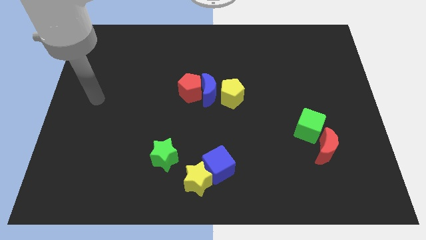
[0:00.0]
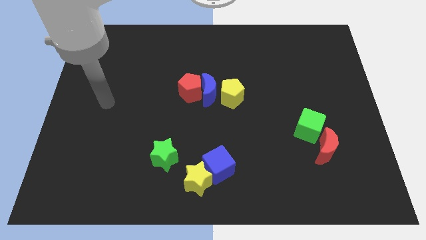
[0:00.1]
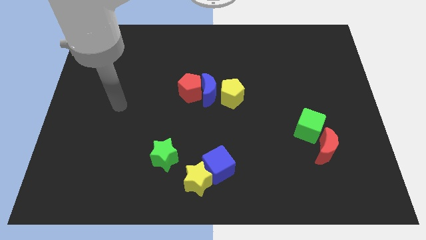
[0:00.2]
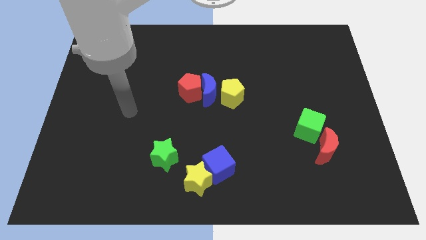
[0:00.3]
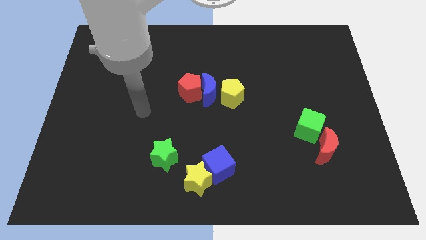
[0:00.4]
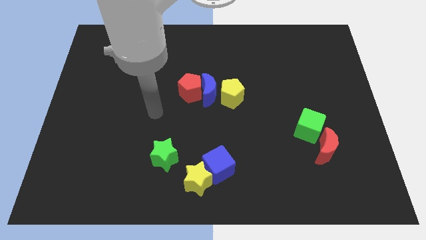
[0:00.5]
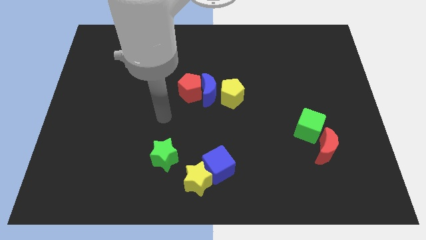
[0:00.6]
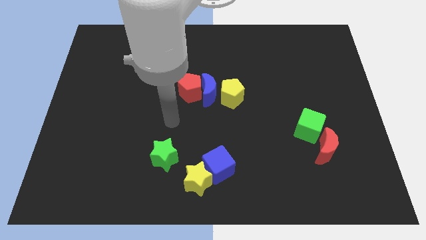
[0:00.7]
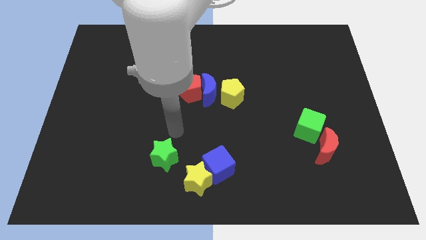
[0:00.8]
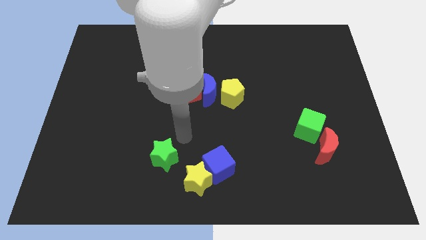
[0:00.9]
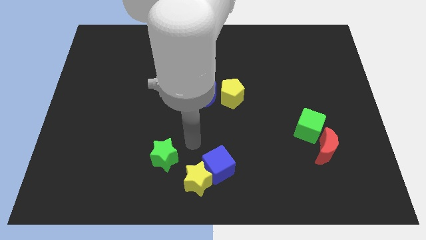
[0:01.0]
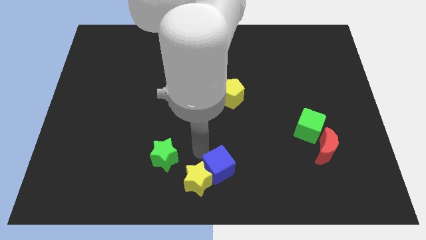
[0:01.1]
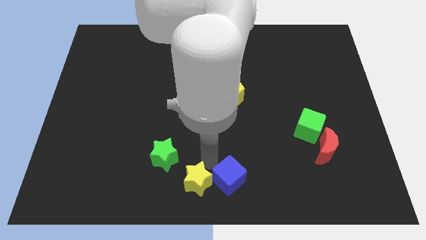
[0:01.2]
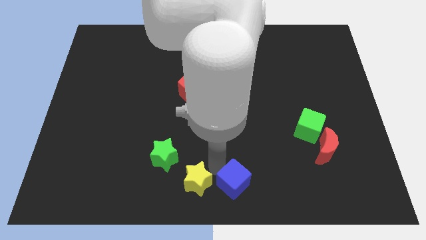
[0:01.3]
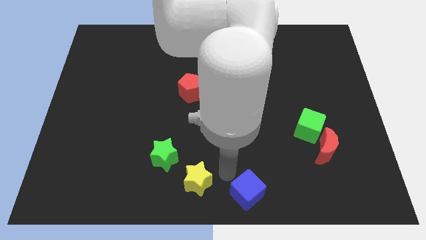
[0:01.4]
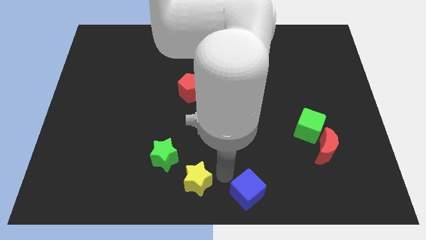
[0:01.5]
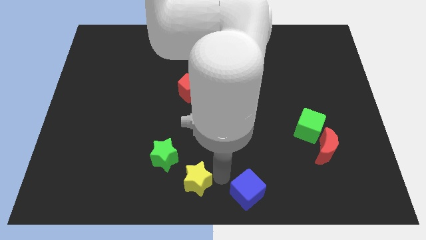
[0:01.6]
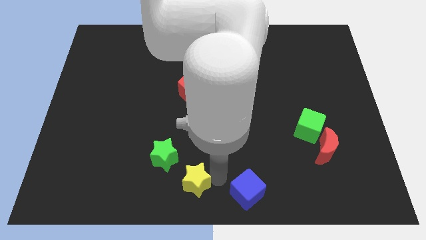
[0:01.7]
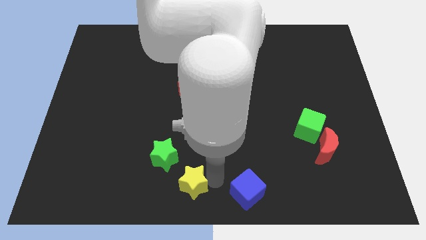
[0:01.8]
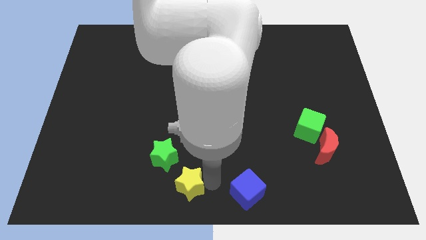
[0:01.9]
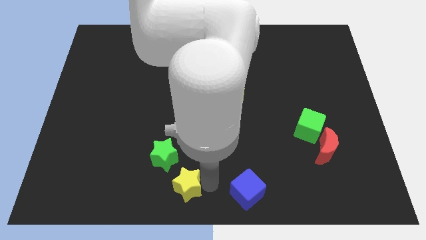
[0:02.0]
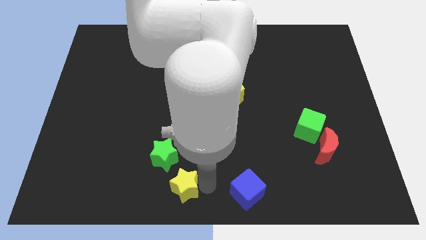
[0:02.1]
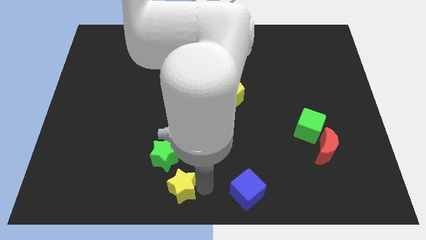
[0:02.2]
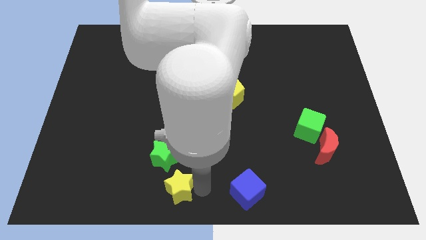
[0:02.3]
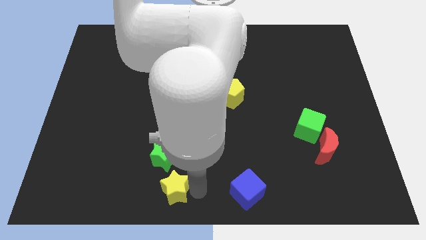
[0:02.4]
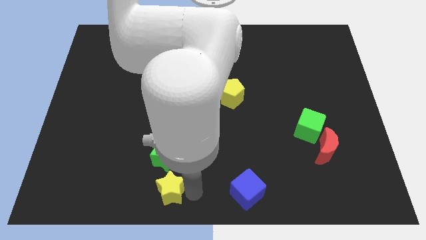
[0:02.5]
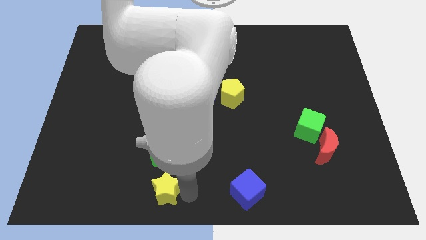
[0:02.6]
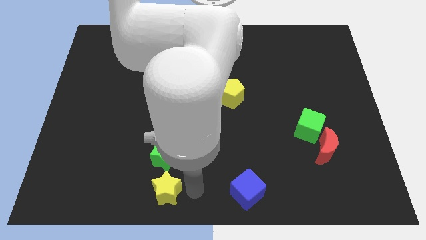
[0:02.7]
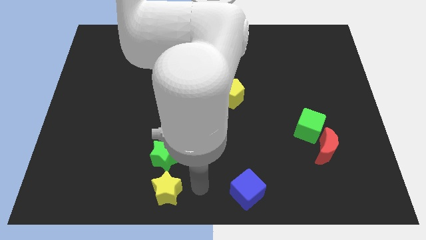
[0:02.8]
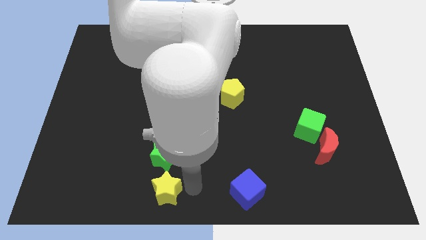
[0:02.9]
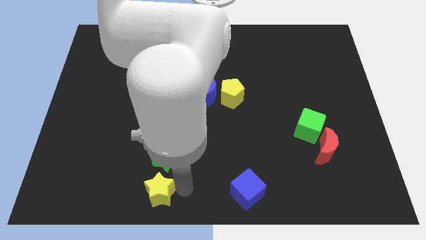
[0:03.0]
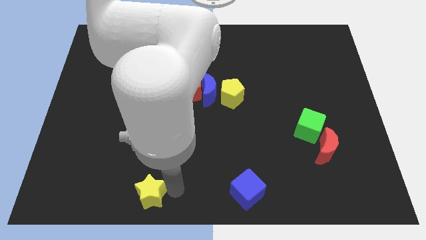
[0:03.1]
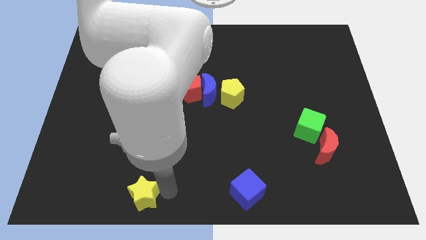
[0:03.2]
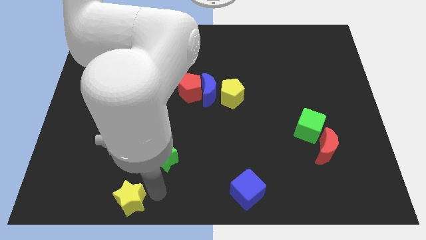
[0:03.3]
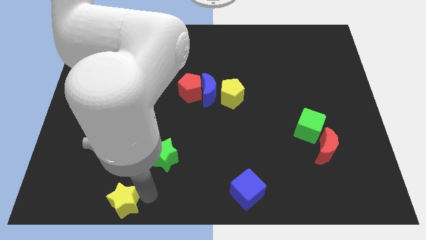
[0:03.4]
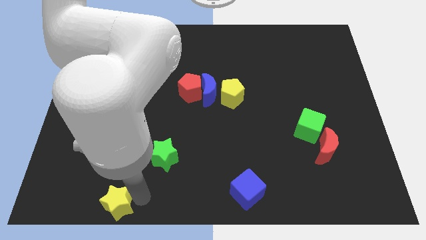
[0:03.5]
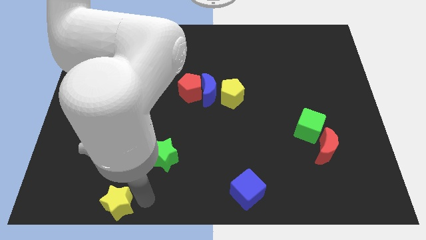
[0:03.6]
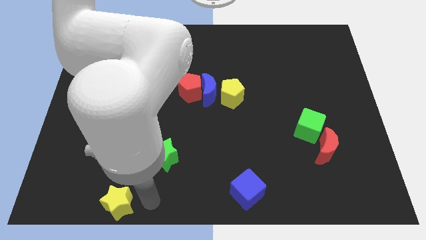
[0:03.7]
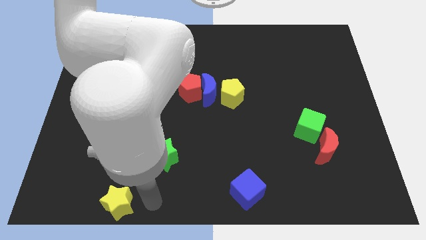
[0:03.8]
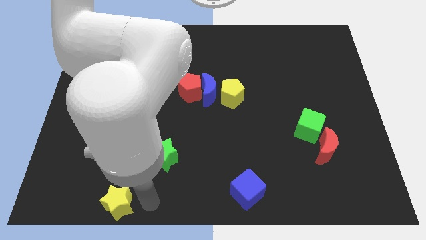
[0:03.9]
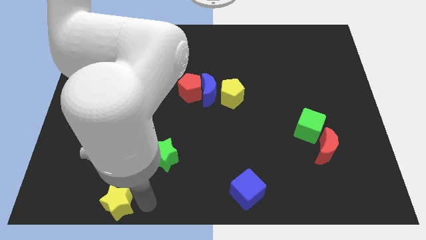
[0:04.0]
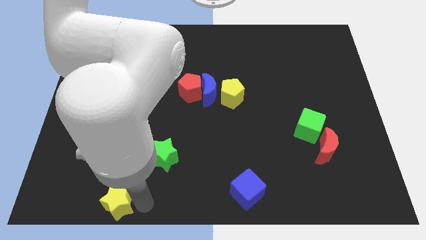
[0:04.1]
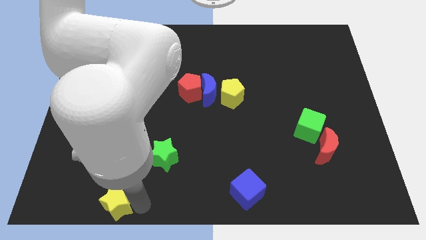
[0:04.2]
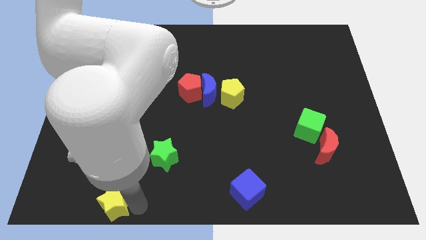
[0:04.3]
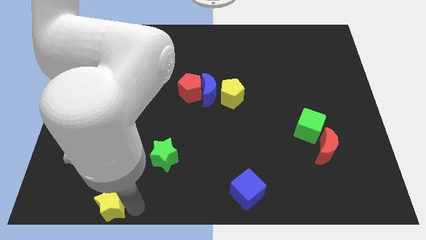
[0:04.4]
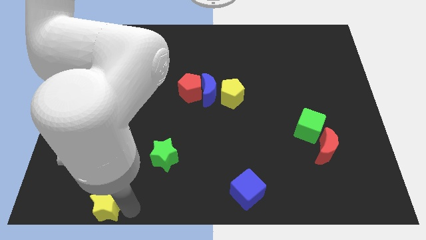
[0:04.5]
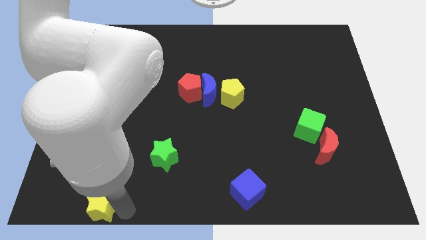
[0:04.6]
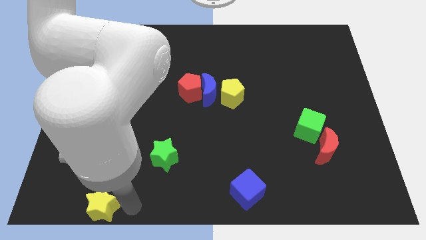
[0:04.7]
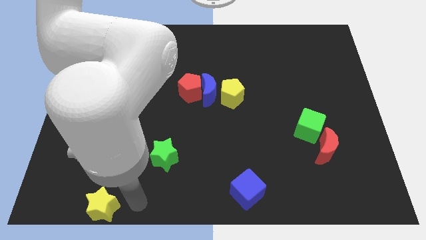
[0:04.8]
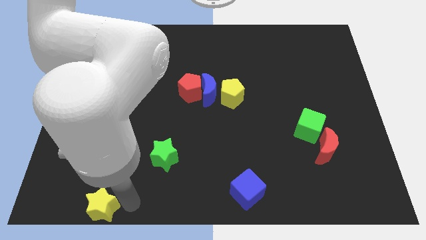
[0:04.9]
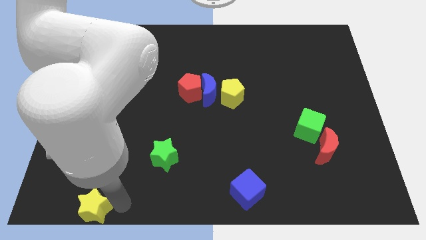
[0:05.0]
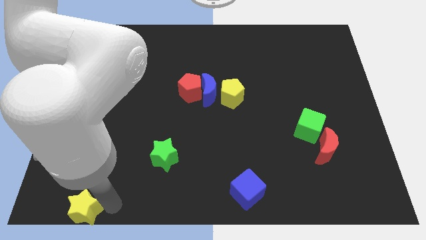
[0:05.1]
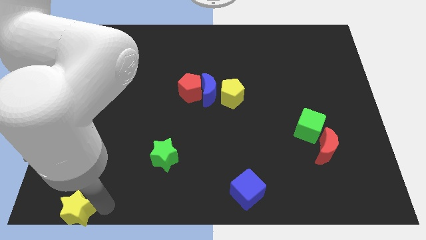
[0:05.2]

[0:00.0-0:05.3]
slide the yellow star to the bottom left
